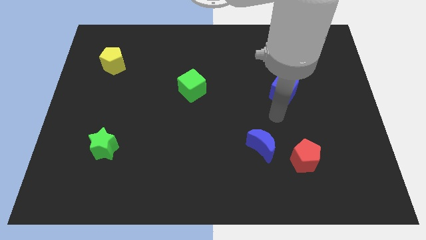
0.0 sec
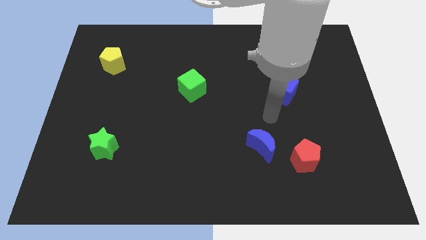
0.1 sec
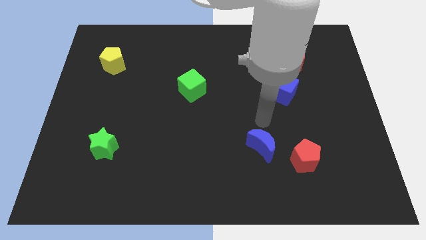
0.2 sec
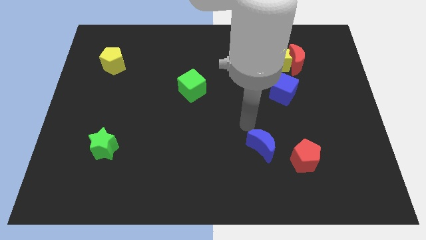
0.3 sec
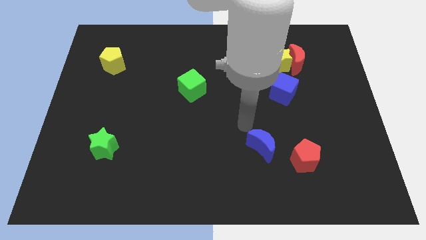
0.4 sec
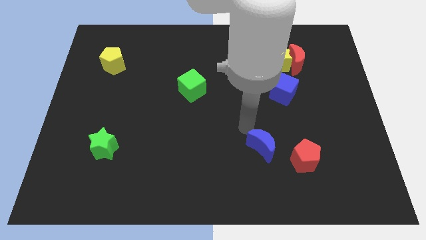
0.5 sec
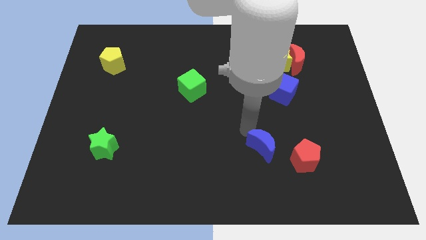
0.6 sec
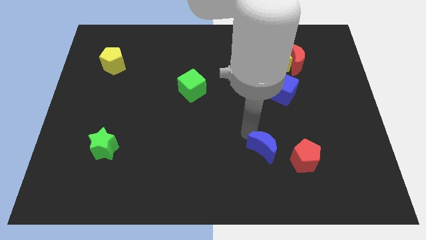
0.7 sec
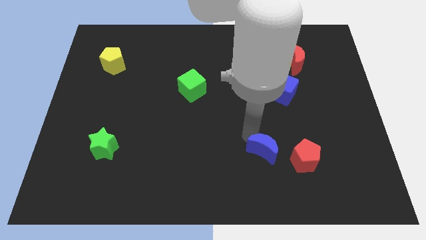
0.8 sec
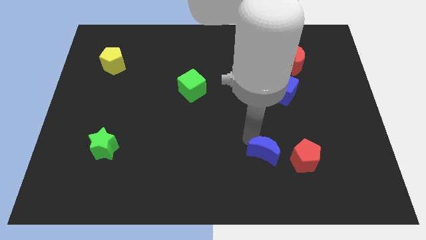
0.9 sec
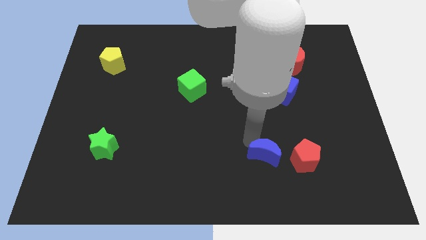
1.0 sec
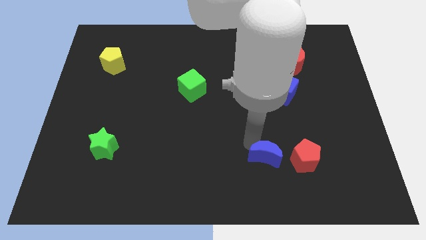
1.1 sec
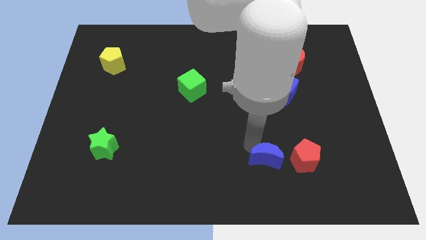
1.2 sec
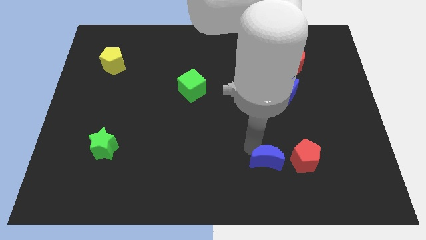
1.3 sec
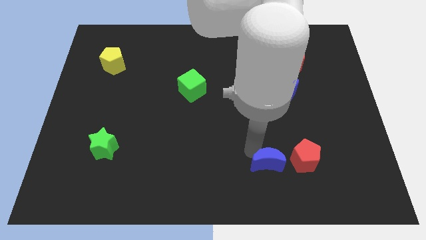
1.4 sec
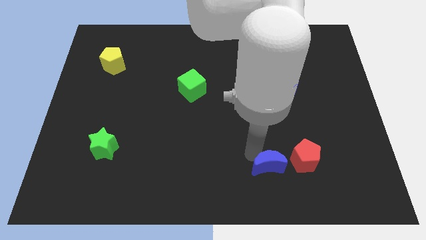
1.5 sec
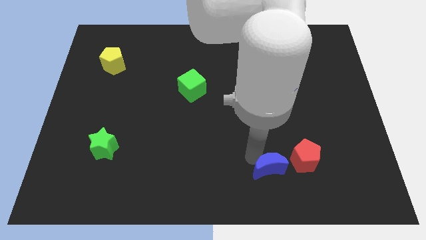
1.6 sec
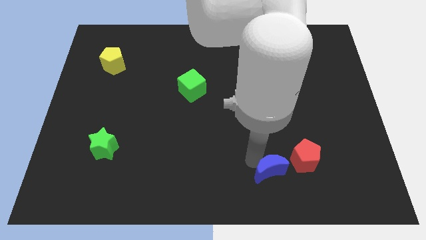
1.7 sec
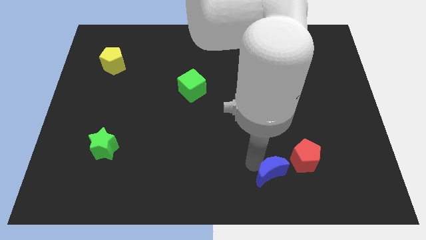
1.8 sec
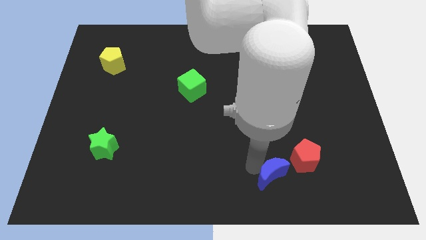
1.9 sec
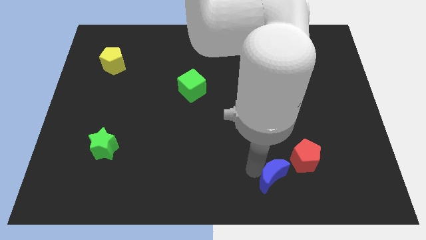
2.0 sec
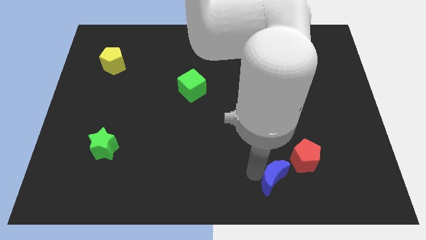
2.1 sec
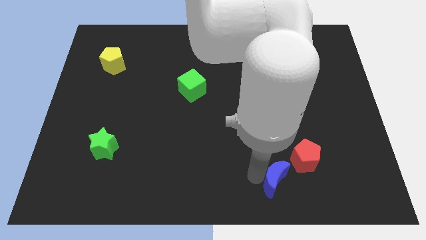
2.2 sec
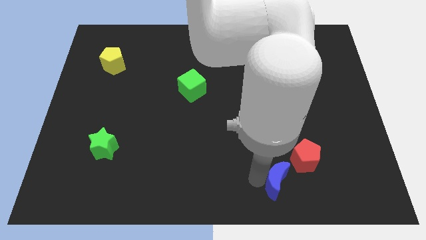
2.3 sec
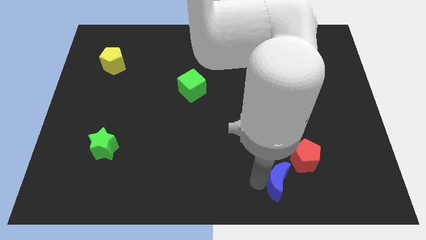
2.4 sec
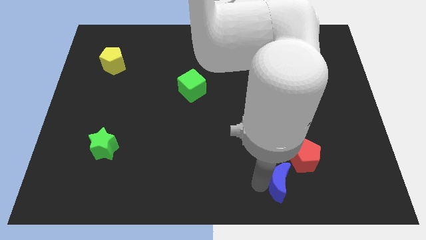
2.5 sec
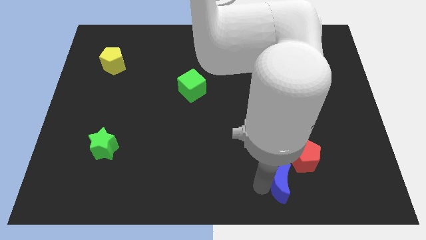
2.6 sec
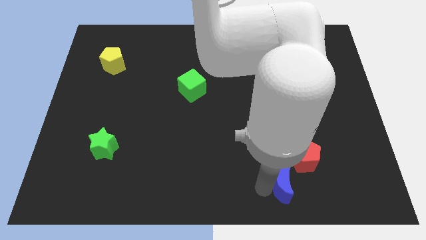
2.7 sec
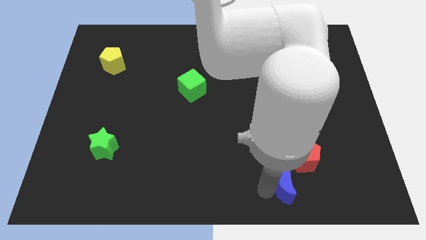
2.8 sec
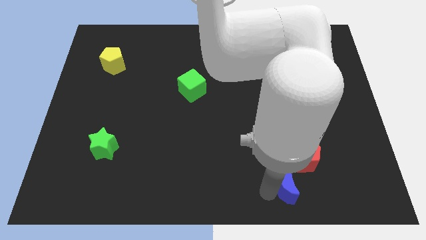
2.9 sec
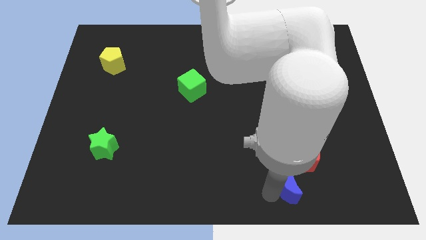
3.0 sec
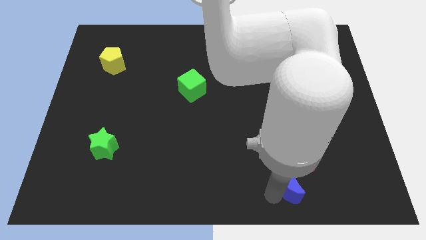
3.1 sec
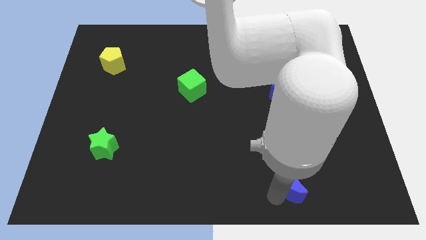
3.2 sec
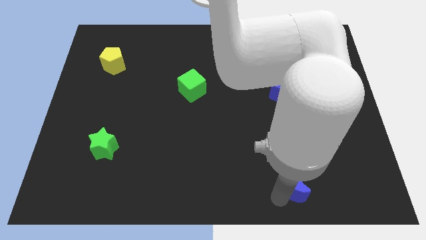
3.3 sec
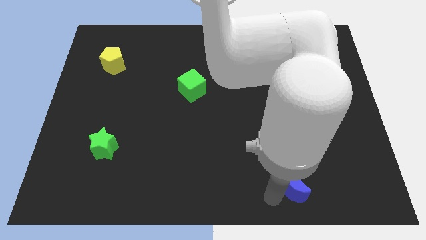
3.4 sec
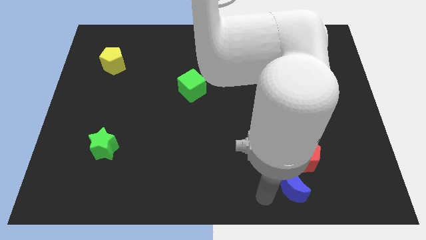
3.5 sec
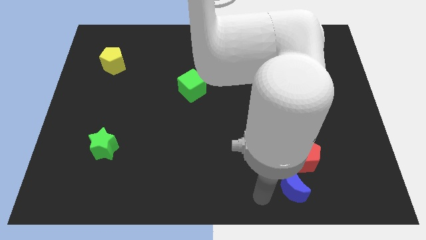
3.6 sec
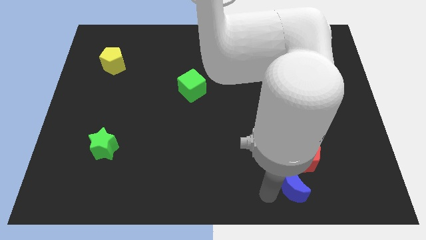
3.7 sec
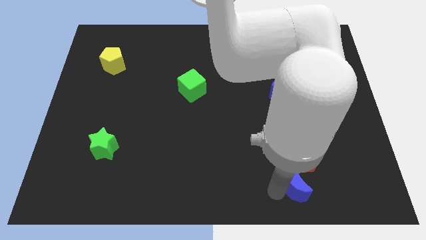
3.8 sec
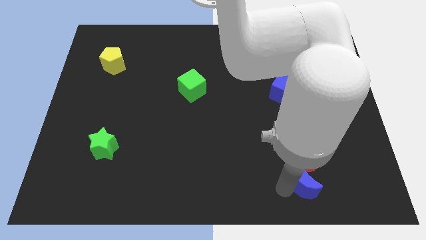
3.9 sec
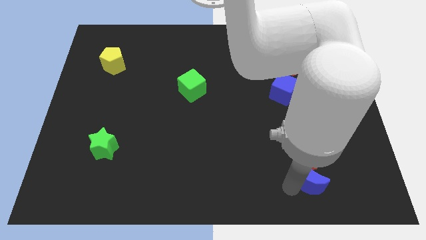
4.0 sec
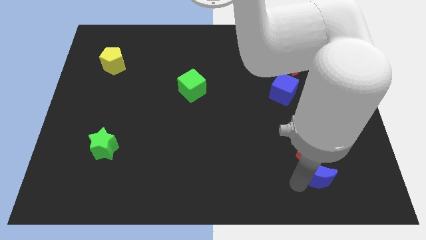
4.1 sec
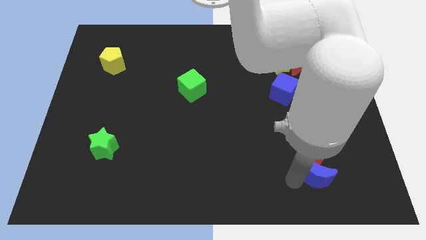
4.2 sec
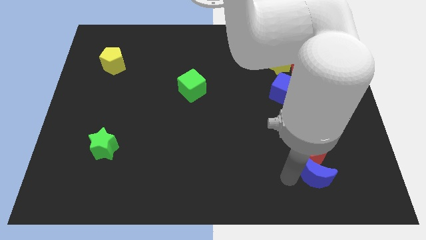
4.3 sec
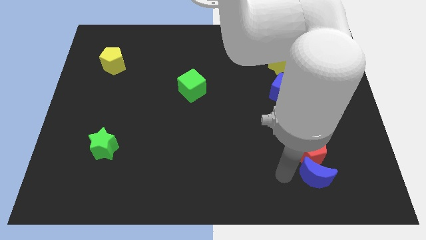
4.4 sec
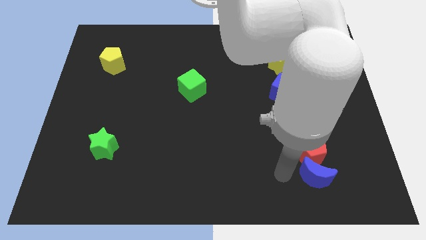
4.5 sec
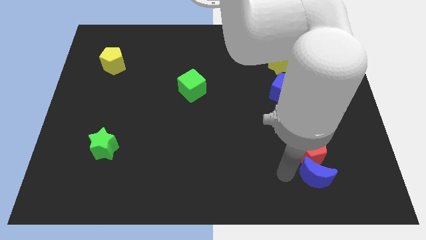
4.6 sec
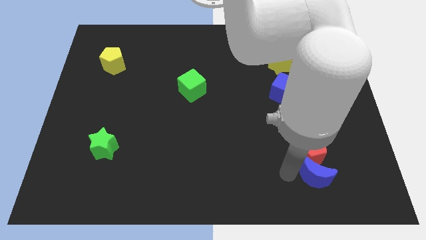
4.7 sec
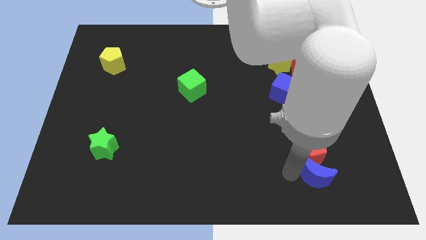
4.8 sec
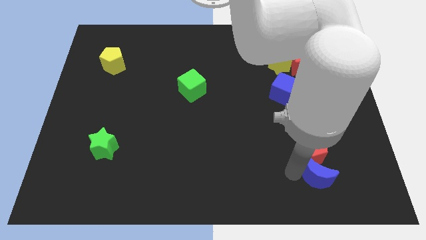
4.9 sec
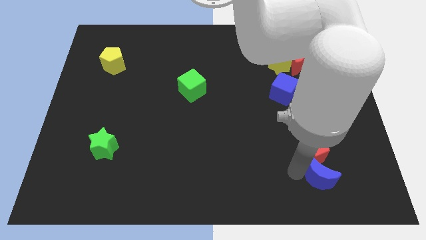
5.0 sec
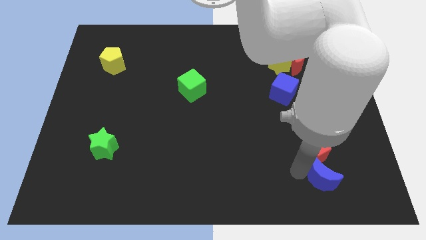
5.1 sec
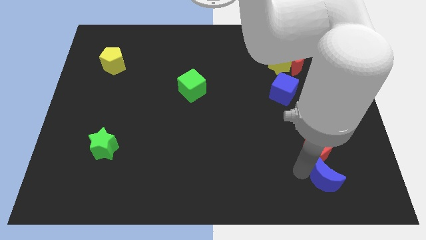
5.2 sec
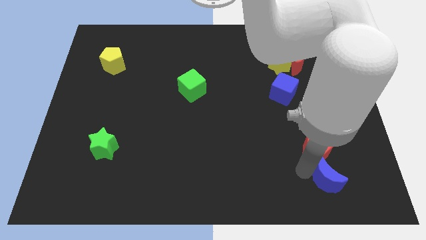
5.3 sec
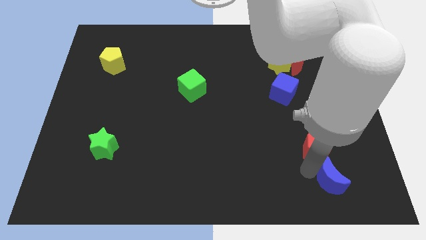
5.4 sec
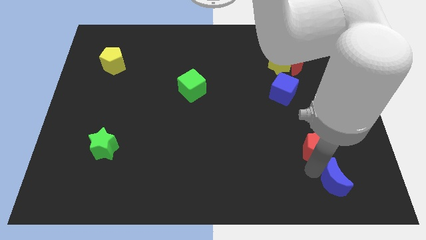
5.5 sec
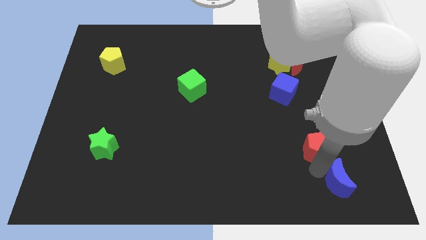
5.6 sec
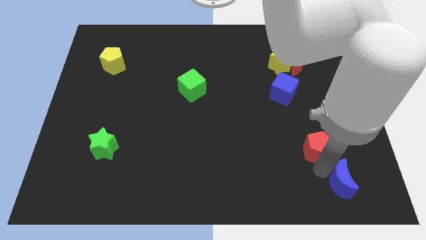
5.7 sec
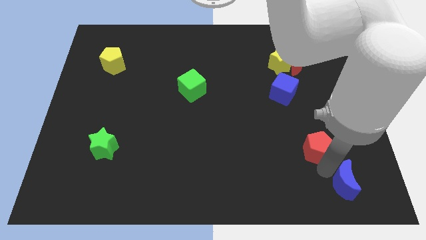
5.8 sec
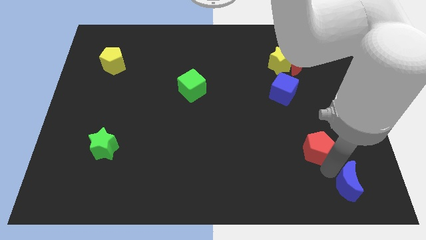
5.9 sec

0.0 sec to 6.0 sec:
move the blue moon to the bottom right of the board

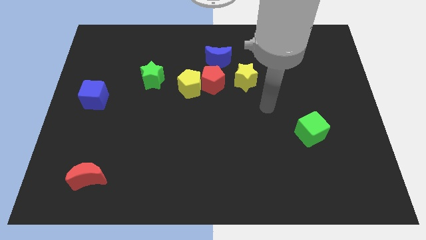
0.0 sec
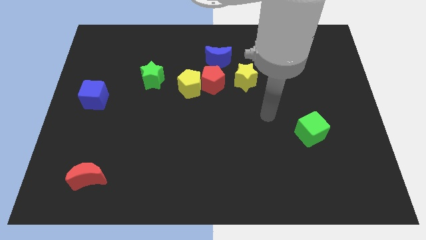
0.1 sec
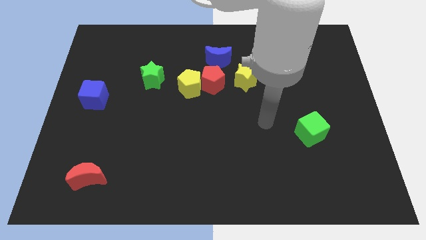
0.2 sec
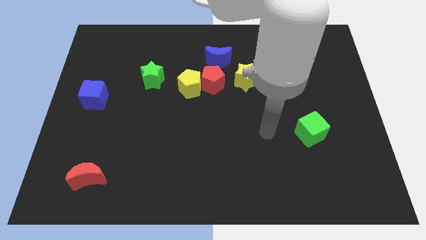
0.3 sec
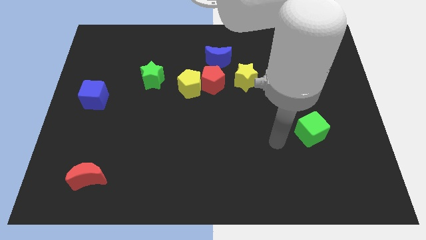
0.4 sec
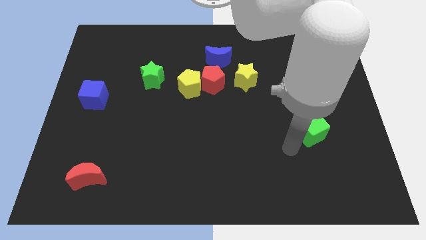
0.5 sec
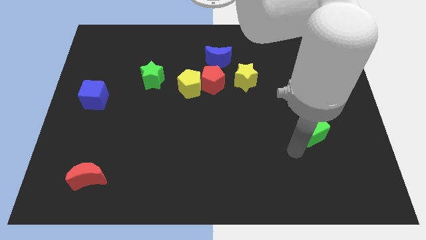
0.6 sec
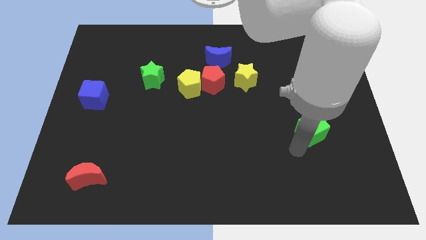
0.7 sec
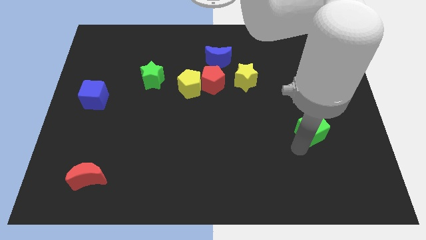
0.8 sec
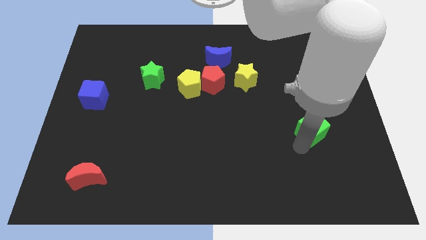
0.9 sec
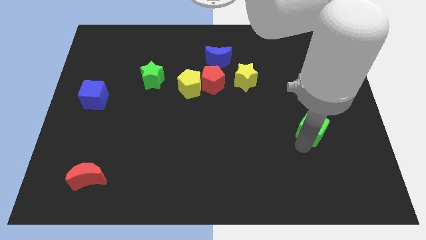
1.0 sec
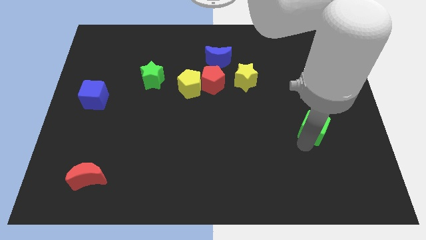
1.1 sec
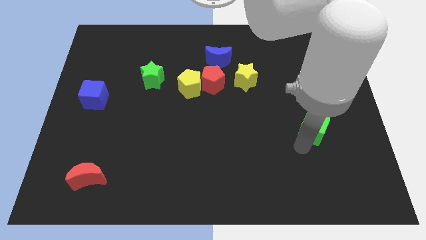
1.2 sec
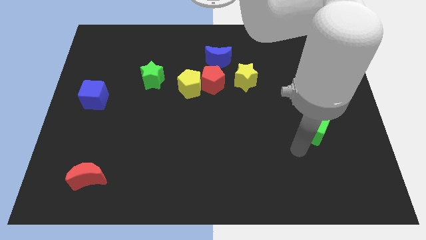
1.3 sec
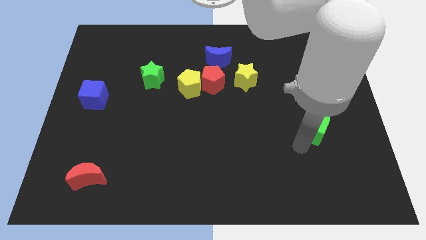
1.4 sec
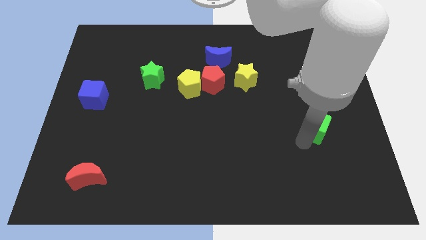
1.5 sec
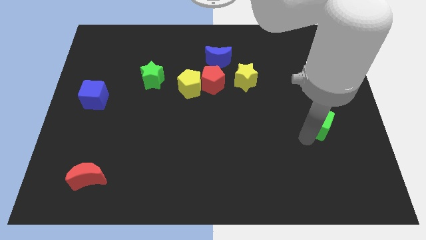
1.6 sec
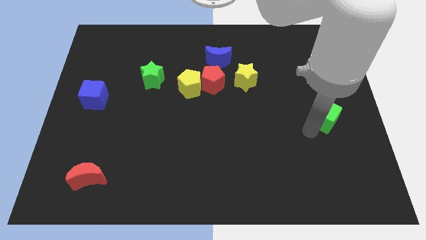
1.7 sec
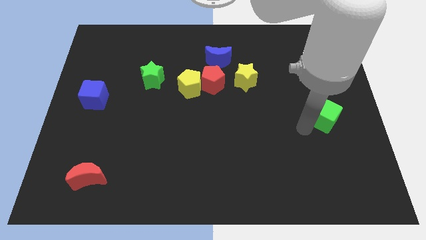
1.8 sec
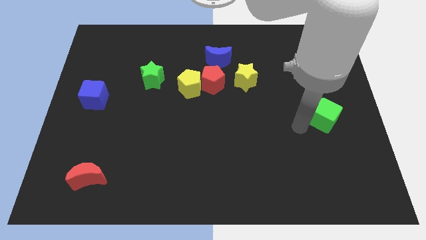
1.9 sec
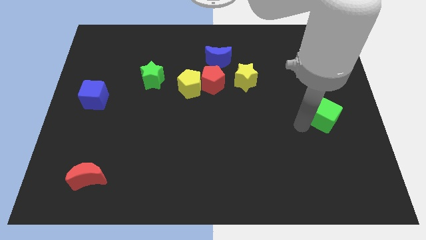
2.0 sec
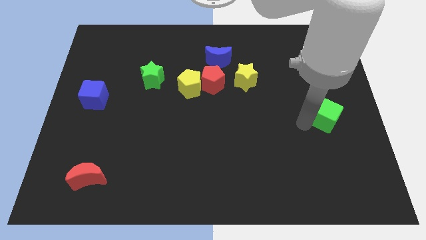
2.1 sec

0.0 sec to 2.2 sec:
push the green cube to the center right
